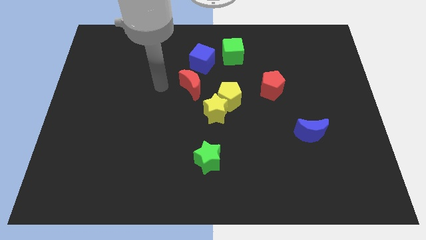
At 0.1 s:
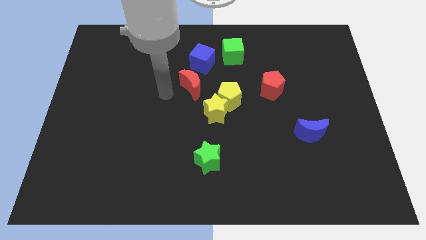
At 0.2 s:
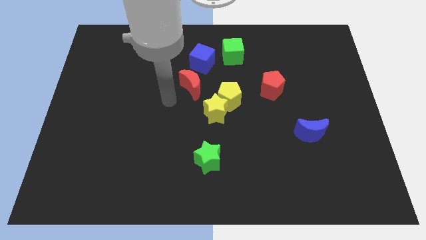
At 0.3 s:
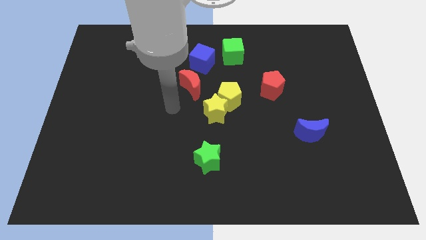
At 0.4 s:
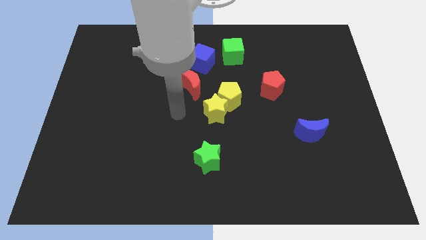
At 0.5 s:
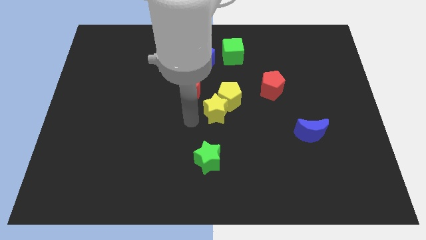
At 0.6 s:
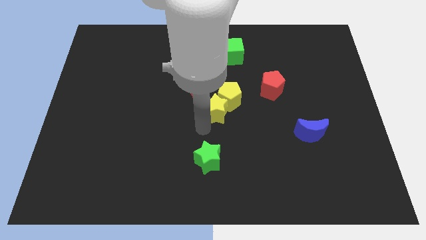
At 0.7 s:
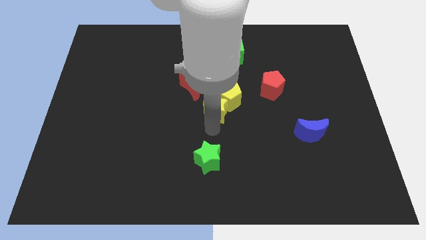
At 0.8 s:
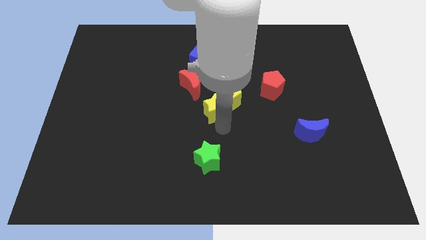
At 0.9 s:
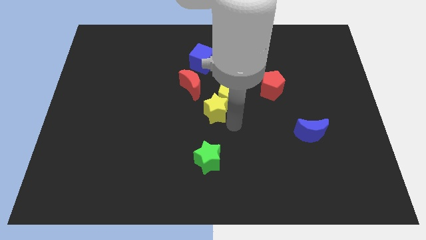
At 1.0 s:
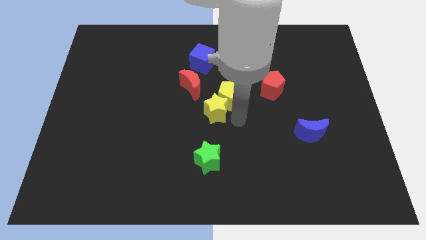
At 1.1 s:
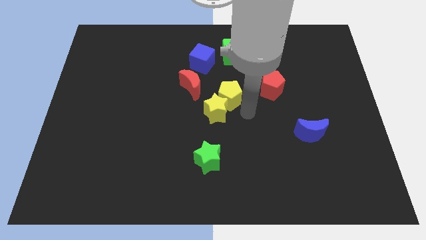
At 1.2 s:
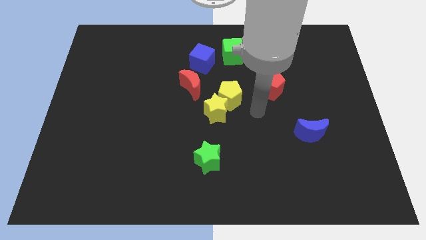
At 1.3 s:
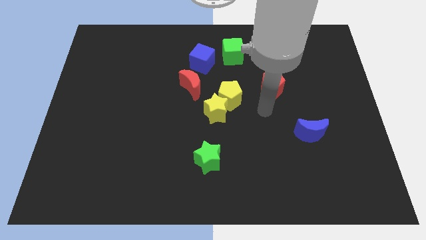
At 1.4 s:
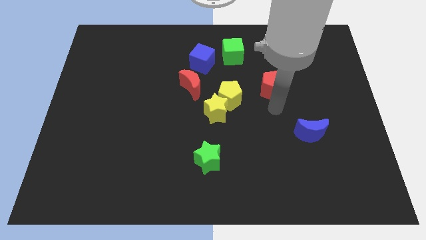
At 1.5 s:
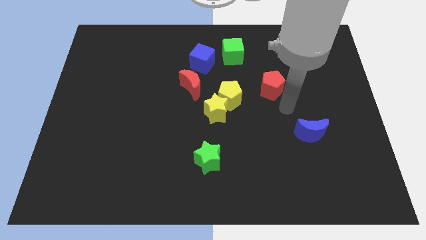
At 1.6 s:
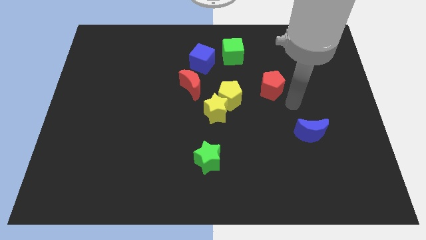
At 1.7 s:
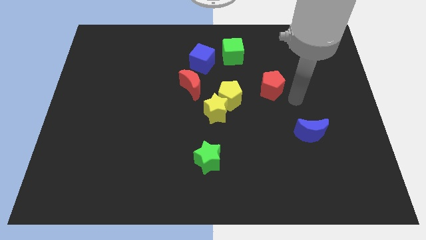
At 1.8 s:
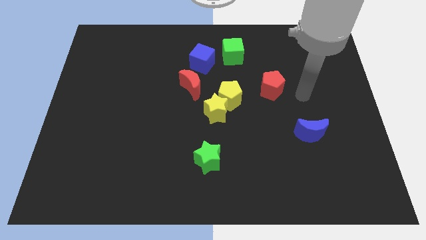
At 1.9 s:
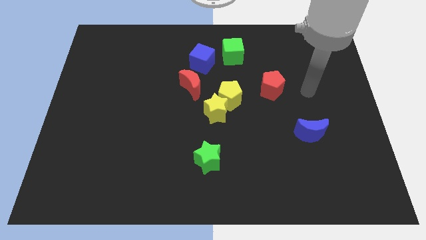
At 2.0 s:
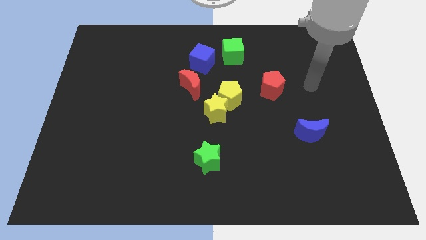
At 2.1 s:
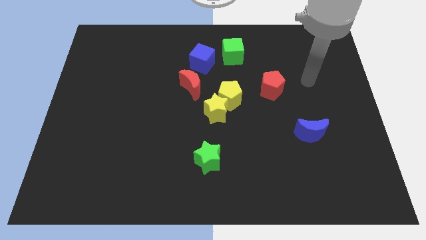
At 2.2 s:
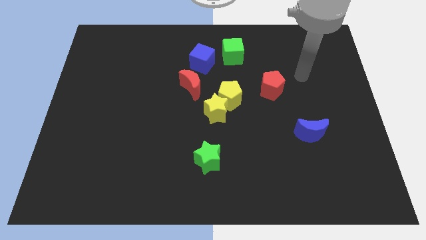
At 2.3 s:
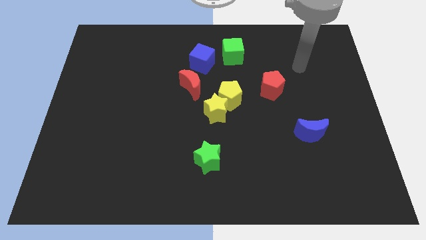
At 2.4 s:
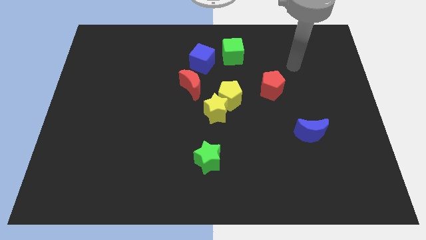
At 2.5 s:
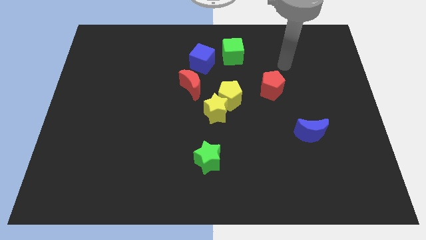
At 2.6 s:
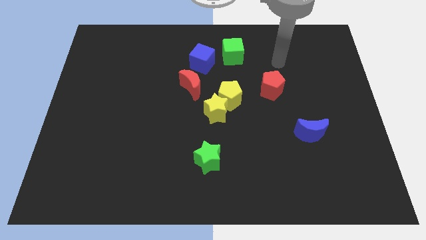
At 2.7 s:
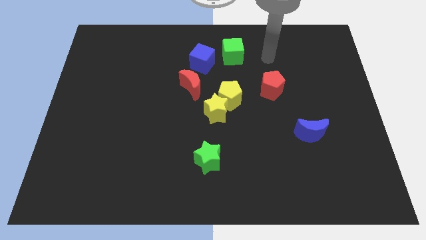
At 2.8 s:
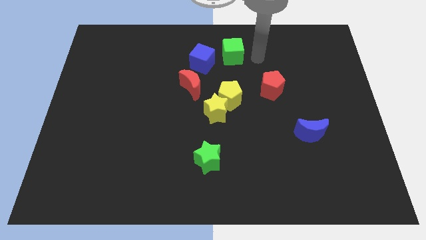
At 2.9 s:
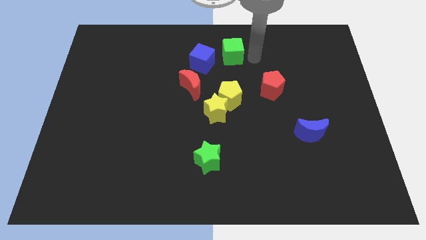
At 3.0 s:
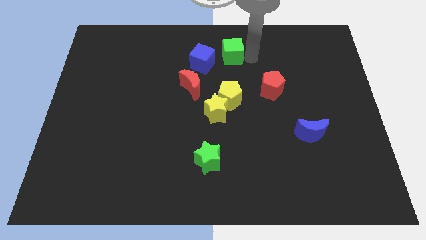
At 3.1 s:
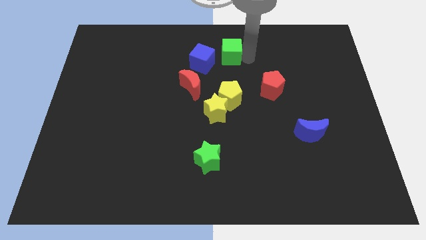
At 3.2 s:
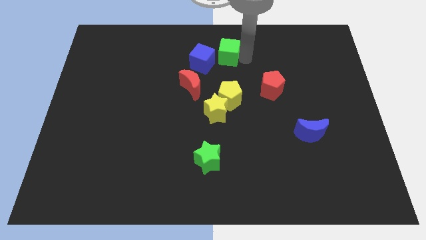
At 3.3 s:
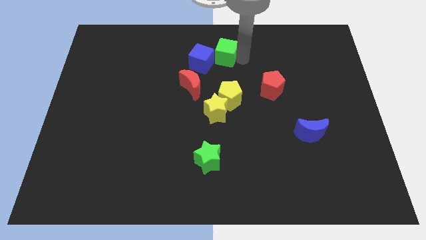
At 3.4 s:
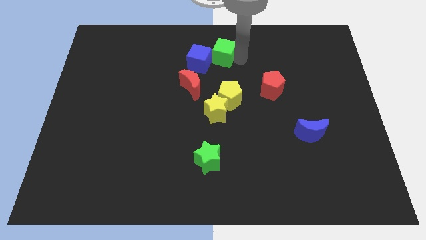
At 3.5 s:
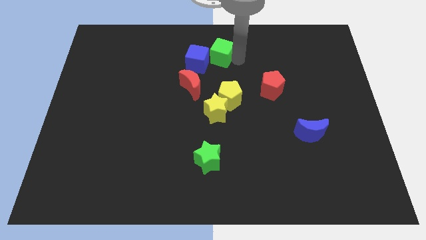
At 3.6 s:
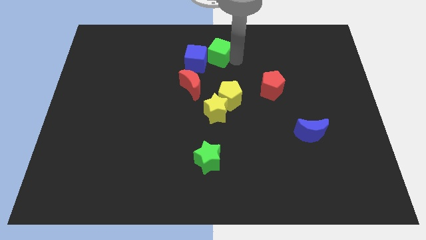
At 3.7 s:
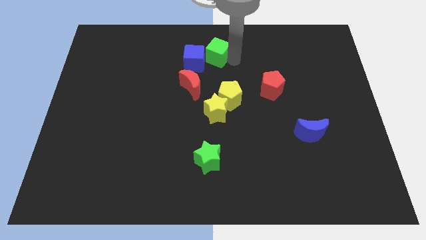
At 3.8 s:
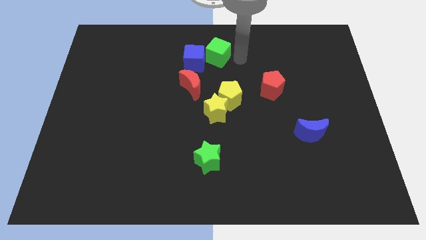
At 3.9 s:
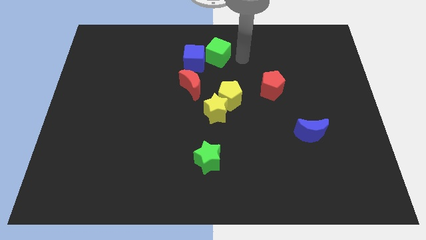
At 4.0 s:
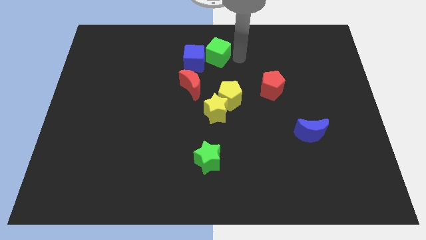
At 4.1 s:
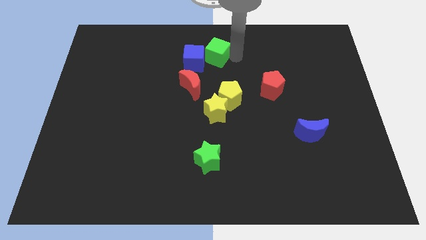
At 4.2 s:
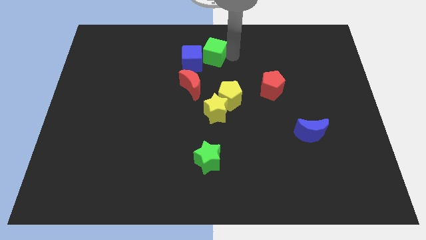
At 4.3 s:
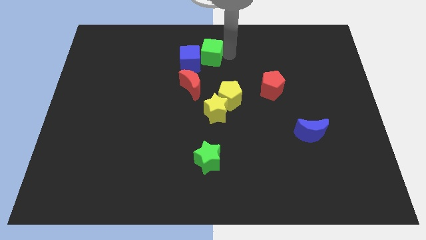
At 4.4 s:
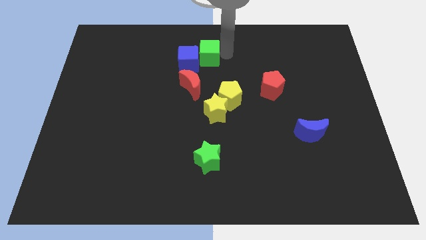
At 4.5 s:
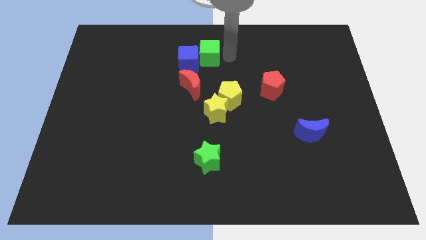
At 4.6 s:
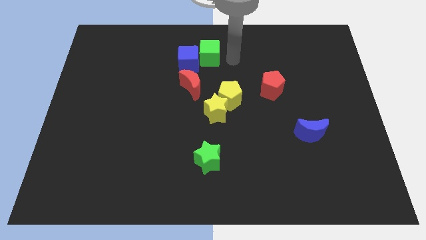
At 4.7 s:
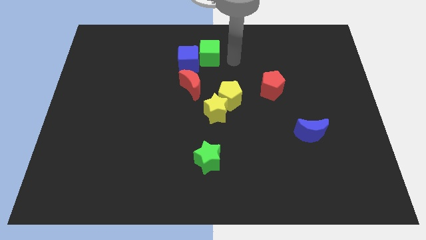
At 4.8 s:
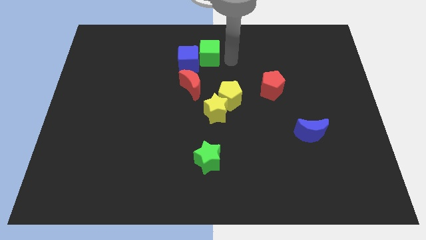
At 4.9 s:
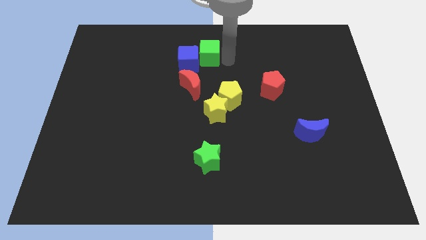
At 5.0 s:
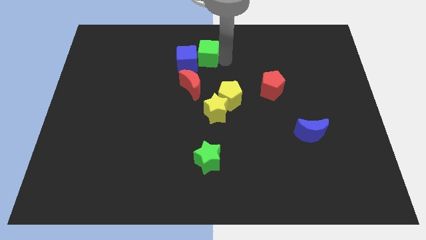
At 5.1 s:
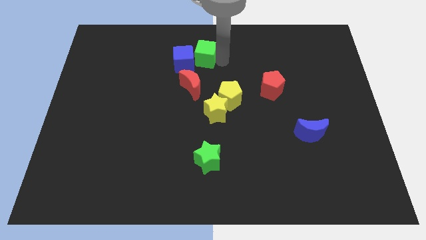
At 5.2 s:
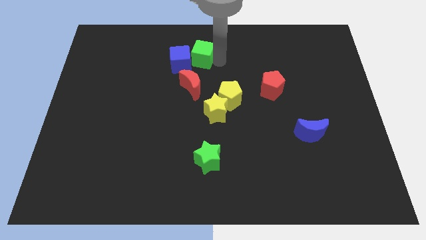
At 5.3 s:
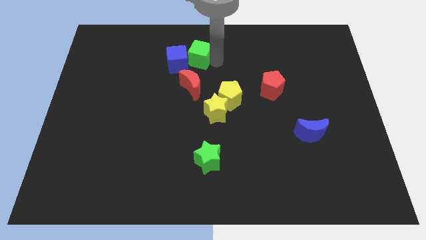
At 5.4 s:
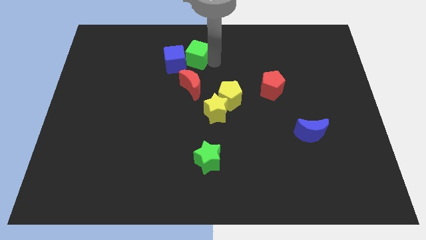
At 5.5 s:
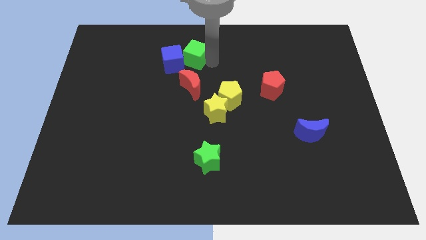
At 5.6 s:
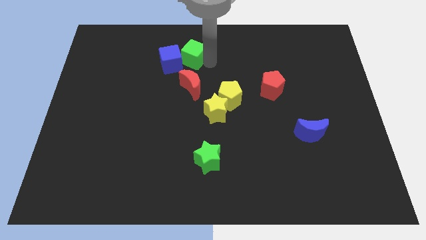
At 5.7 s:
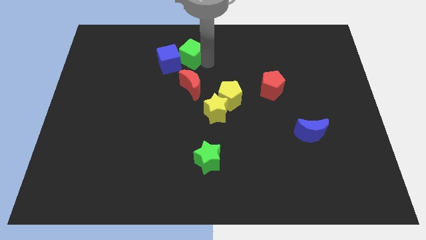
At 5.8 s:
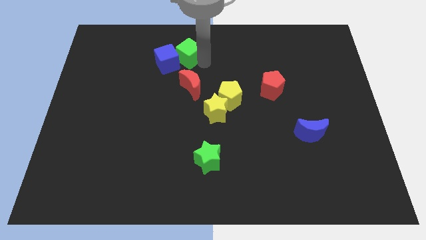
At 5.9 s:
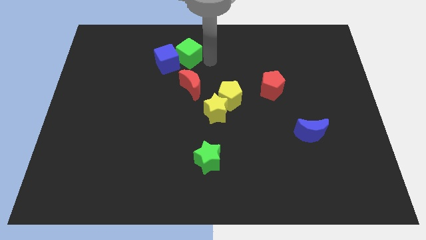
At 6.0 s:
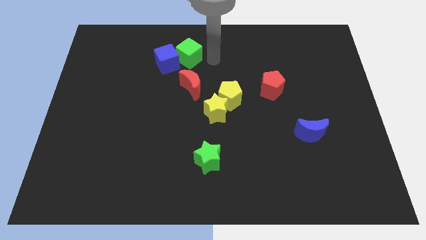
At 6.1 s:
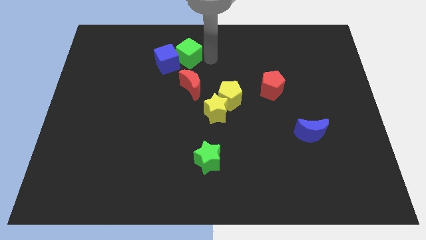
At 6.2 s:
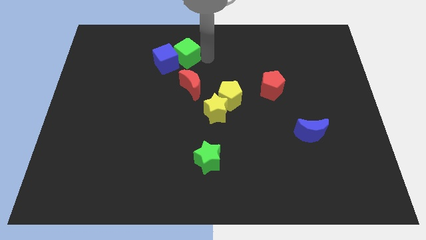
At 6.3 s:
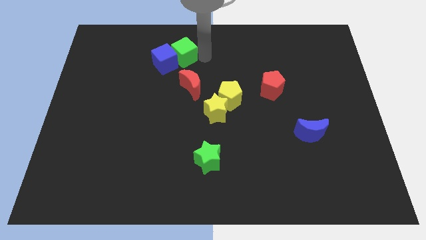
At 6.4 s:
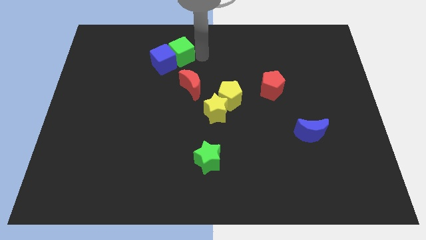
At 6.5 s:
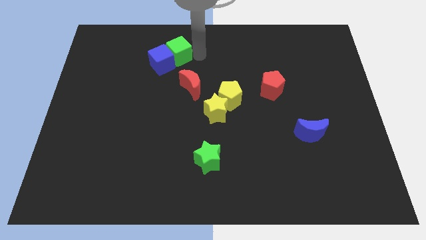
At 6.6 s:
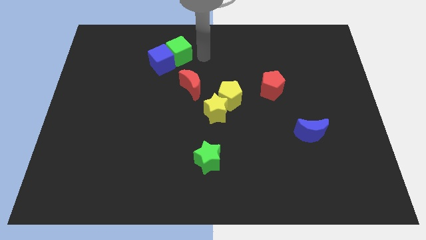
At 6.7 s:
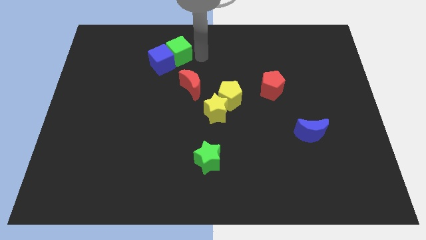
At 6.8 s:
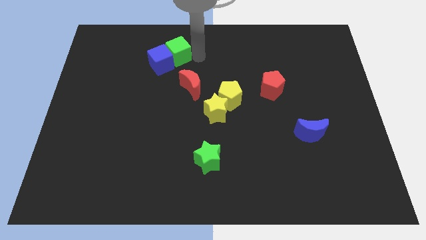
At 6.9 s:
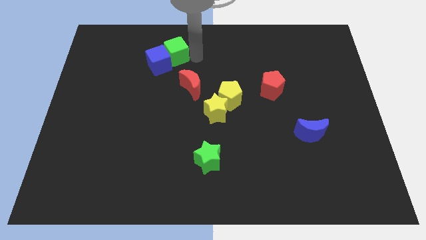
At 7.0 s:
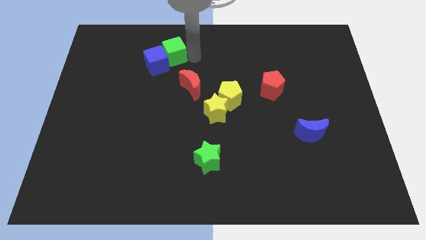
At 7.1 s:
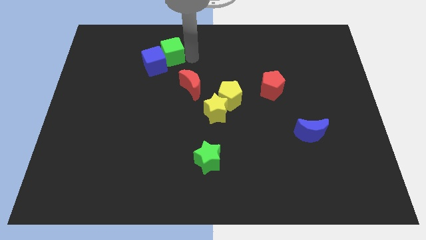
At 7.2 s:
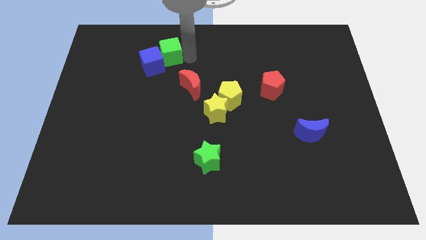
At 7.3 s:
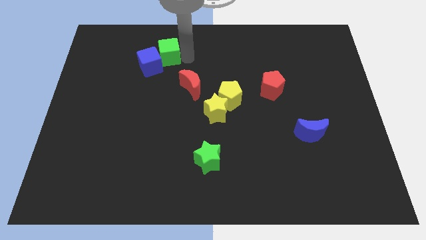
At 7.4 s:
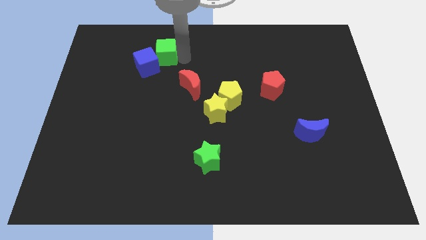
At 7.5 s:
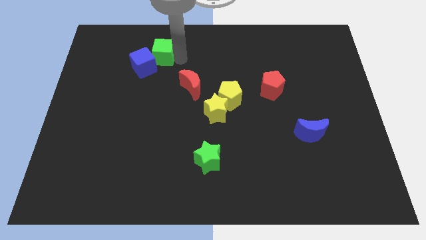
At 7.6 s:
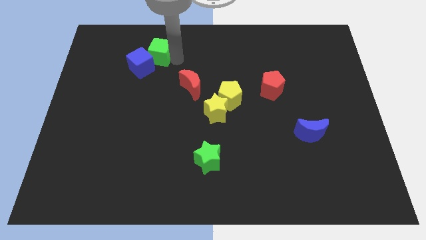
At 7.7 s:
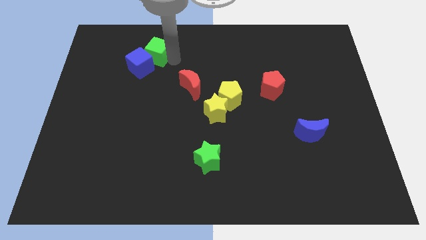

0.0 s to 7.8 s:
slide the green cube to the left
